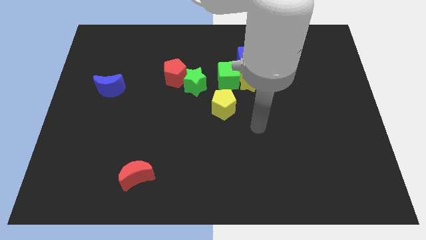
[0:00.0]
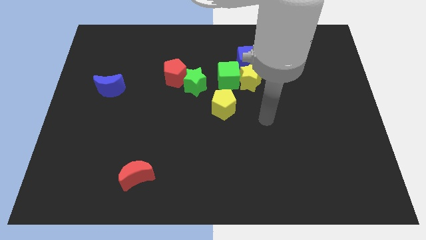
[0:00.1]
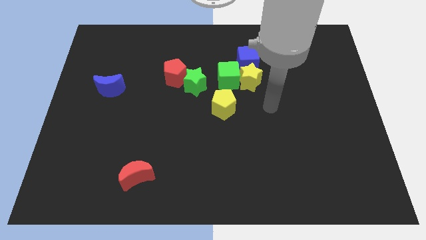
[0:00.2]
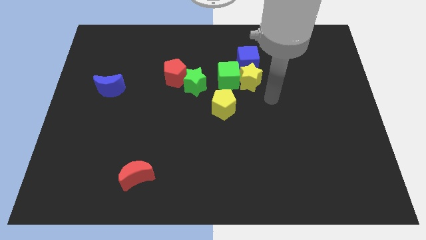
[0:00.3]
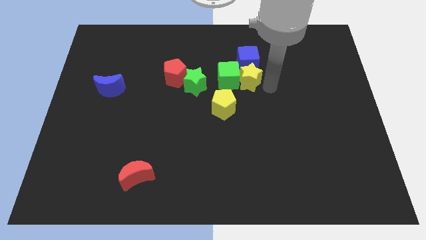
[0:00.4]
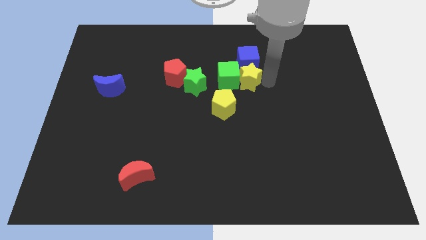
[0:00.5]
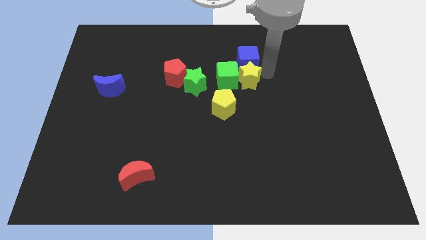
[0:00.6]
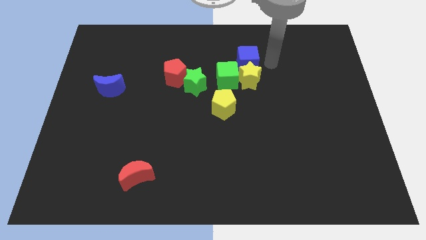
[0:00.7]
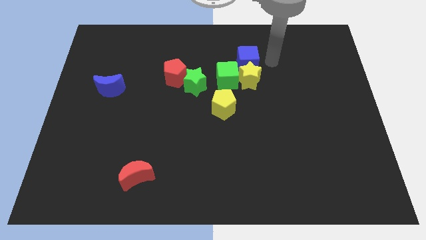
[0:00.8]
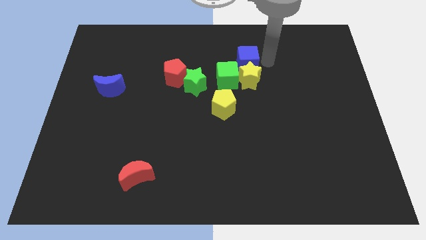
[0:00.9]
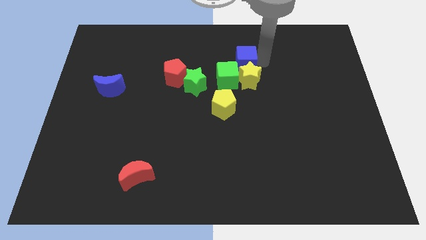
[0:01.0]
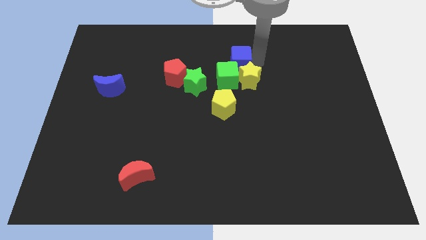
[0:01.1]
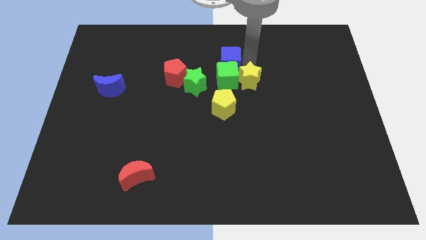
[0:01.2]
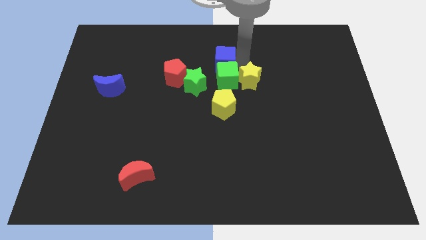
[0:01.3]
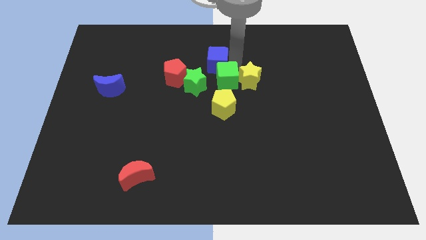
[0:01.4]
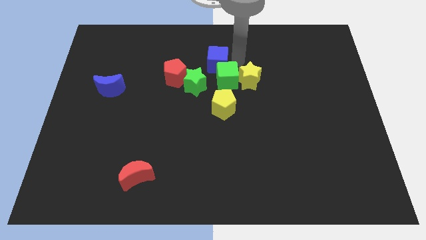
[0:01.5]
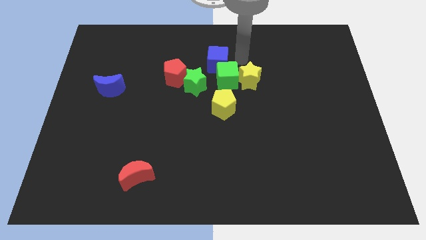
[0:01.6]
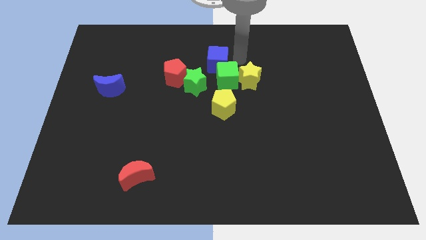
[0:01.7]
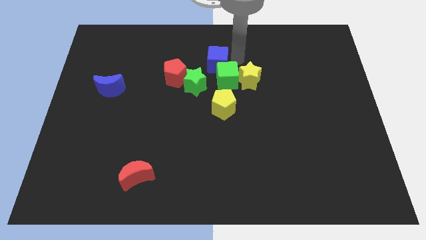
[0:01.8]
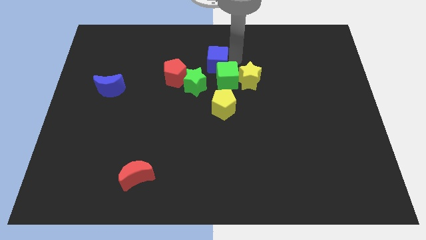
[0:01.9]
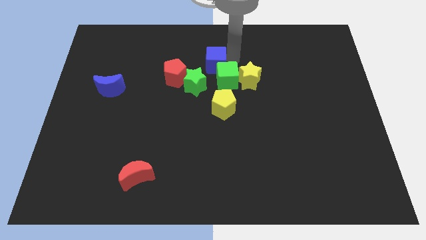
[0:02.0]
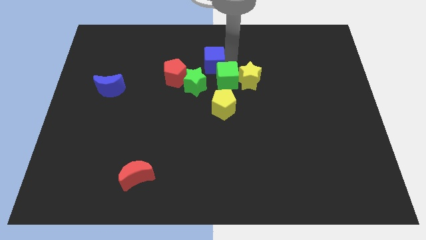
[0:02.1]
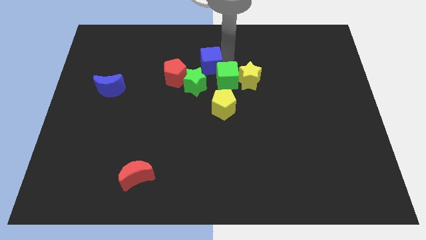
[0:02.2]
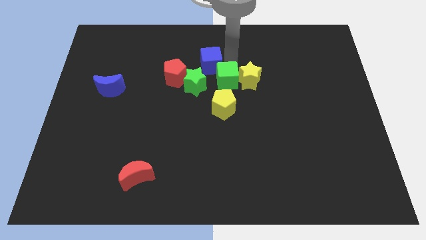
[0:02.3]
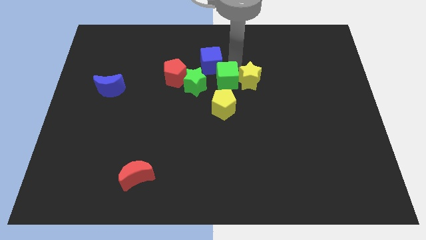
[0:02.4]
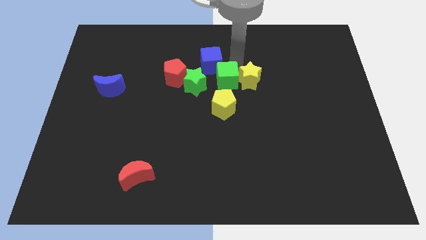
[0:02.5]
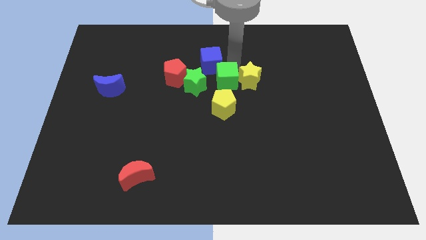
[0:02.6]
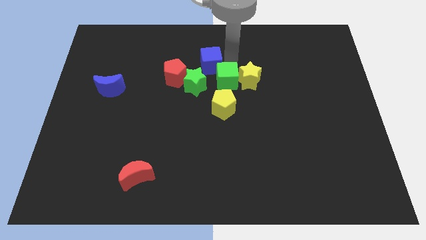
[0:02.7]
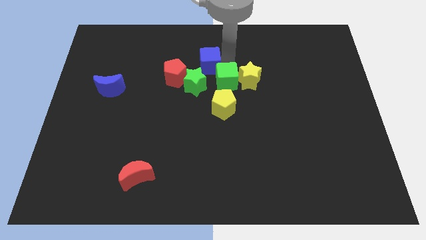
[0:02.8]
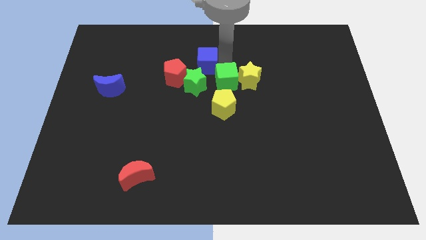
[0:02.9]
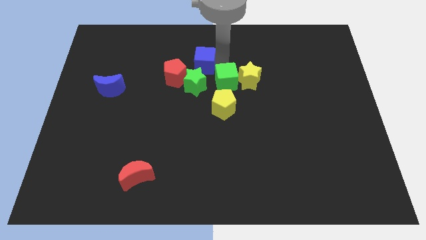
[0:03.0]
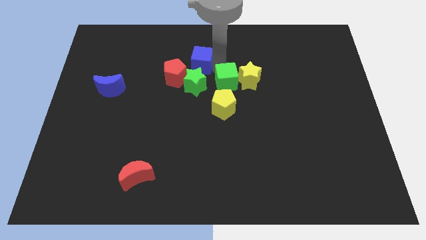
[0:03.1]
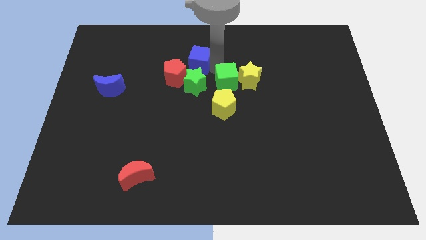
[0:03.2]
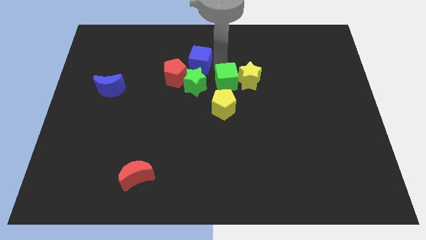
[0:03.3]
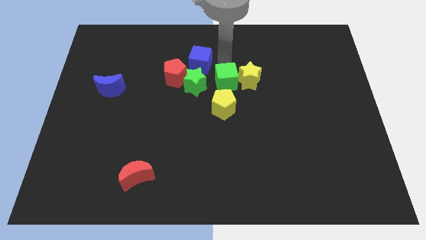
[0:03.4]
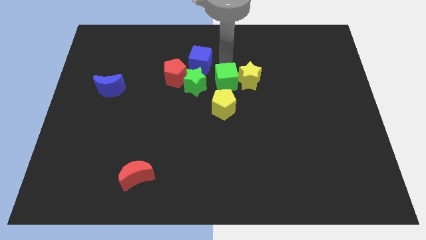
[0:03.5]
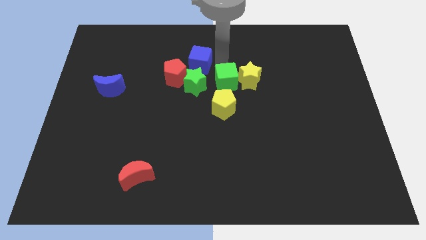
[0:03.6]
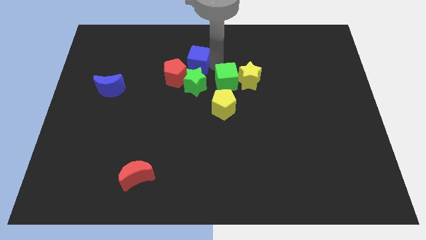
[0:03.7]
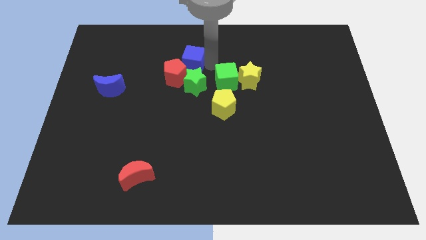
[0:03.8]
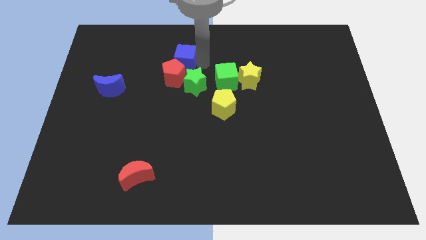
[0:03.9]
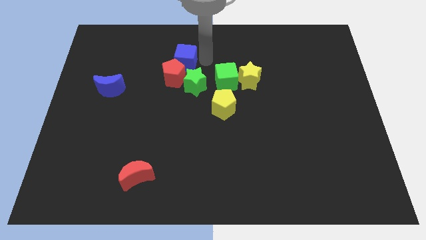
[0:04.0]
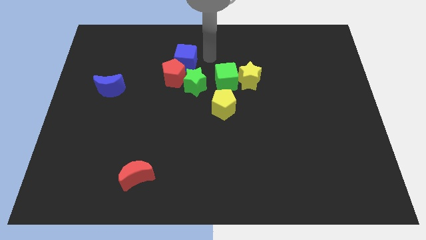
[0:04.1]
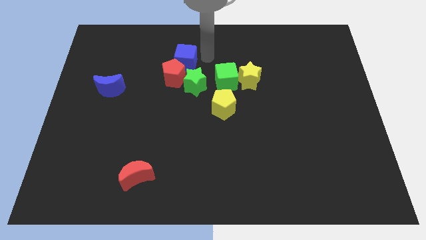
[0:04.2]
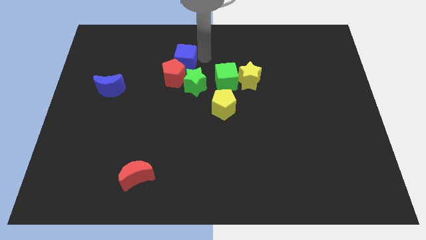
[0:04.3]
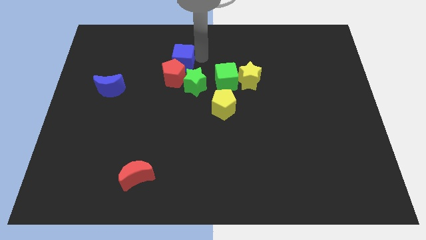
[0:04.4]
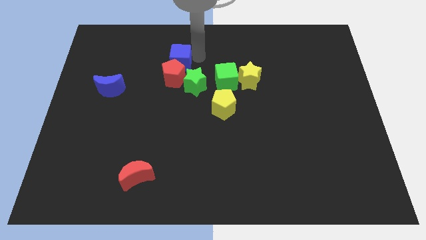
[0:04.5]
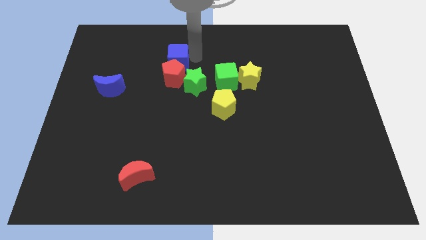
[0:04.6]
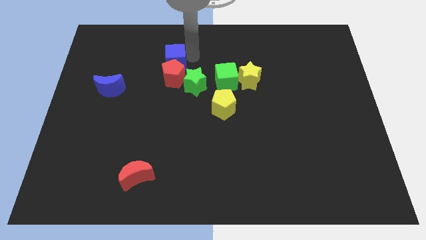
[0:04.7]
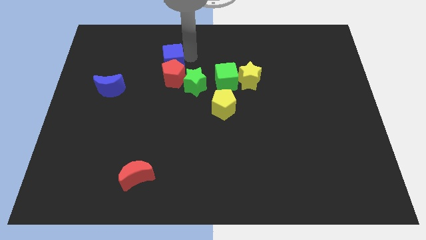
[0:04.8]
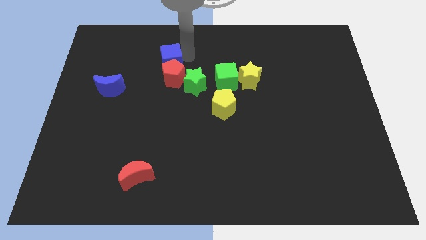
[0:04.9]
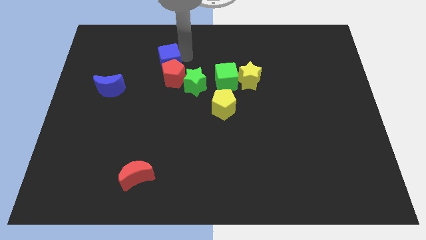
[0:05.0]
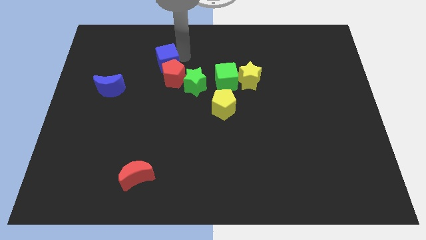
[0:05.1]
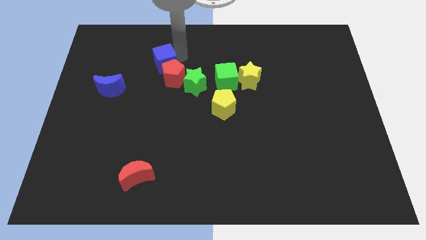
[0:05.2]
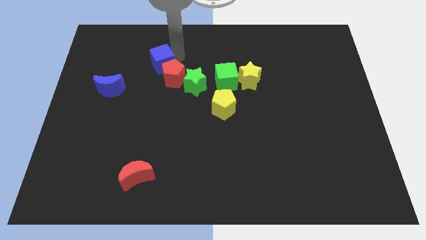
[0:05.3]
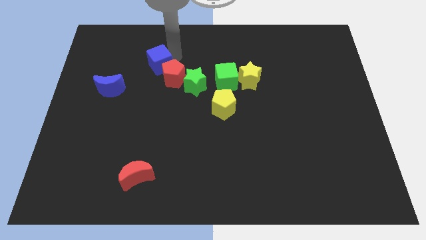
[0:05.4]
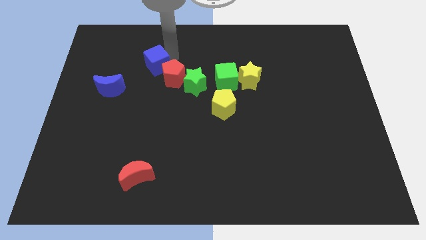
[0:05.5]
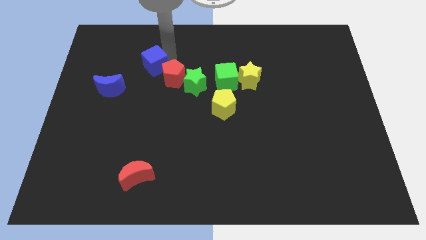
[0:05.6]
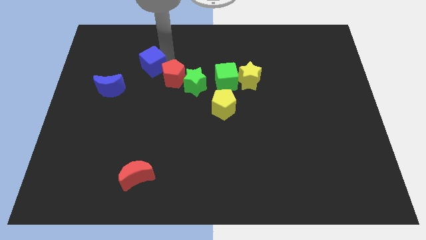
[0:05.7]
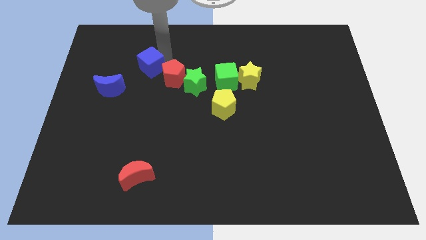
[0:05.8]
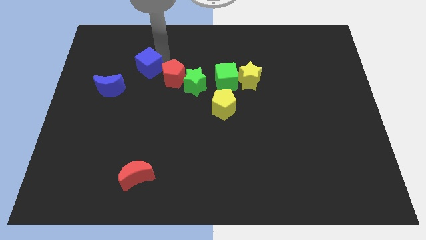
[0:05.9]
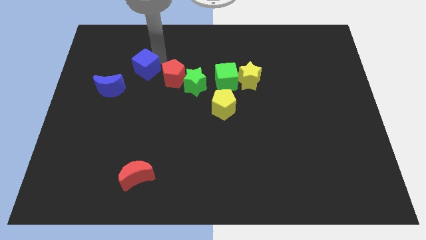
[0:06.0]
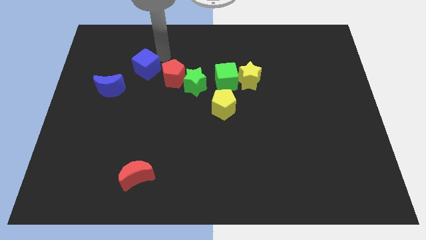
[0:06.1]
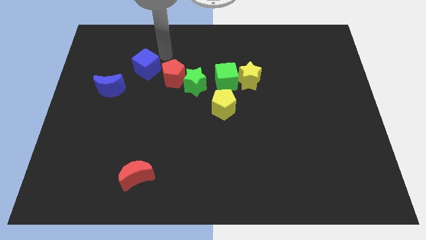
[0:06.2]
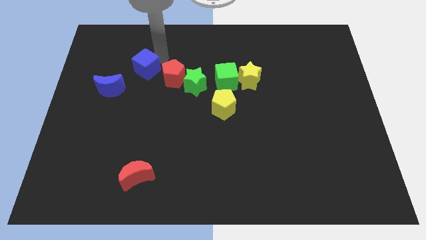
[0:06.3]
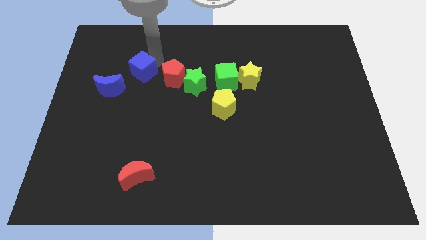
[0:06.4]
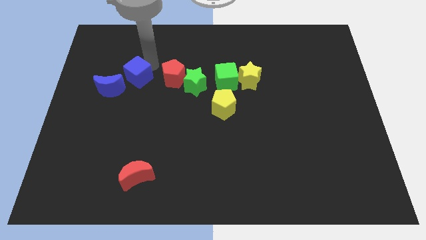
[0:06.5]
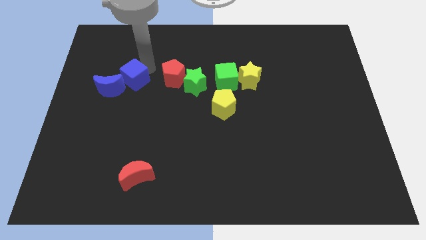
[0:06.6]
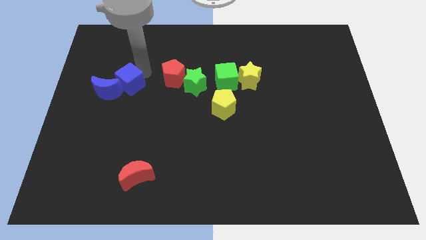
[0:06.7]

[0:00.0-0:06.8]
move the blue cube next to the blue moon
